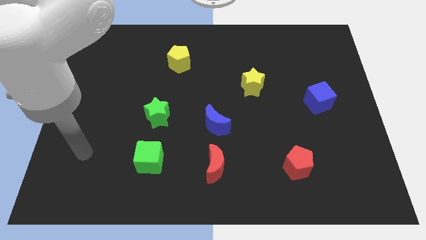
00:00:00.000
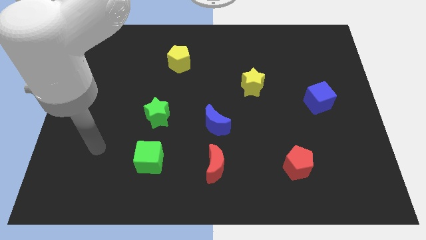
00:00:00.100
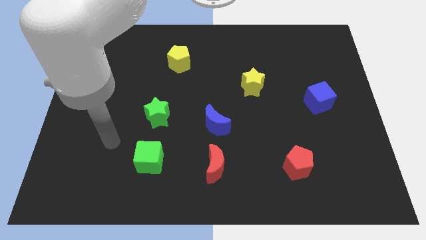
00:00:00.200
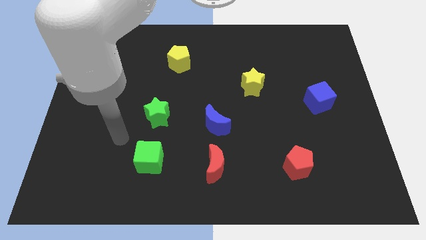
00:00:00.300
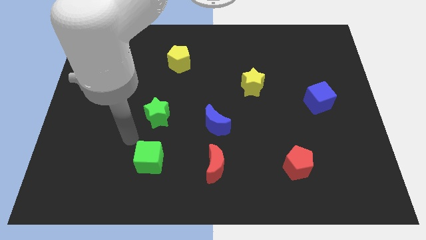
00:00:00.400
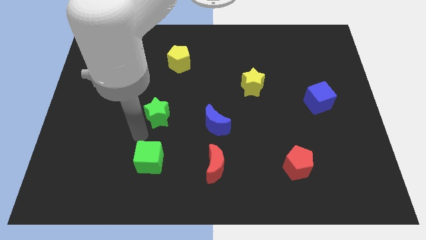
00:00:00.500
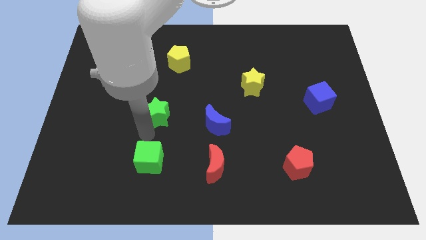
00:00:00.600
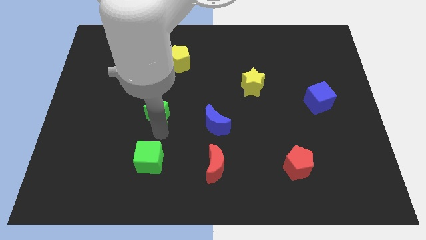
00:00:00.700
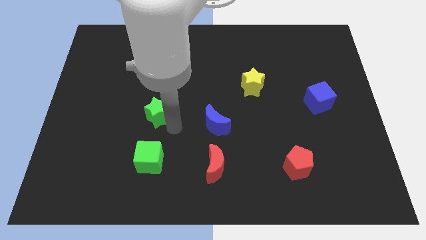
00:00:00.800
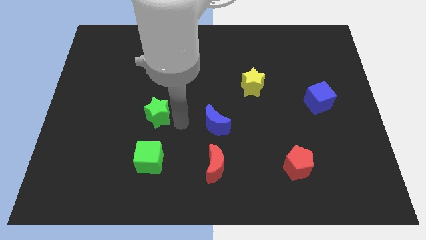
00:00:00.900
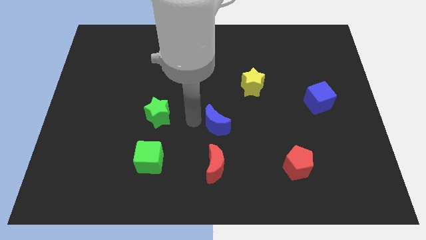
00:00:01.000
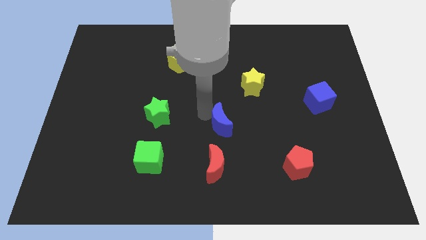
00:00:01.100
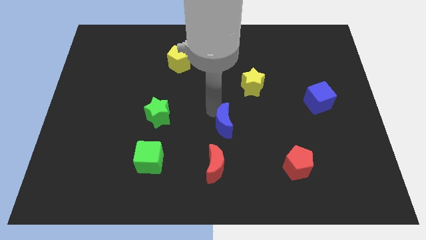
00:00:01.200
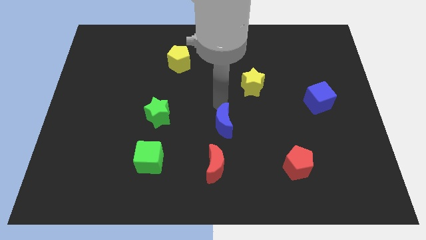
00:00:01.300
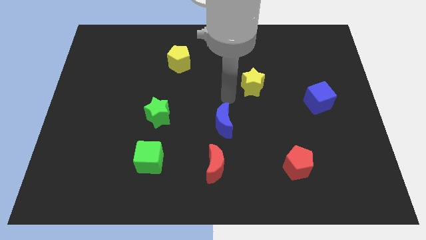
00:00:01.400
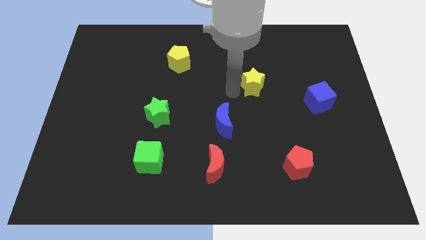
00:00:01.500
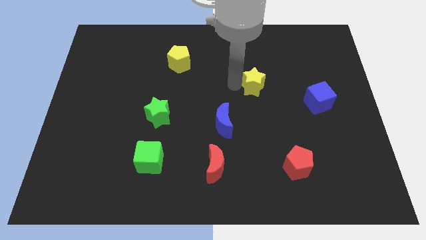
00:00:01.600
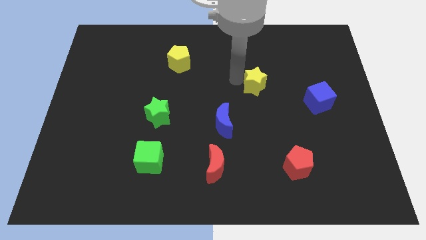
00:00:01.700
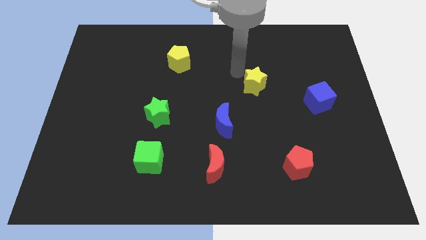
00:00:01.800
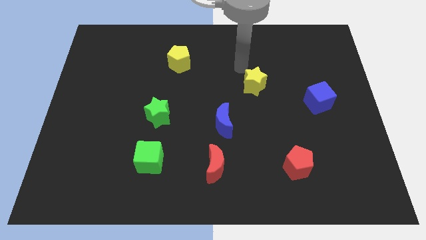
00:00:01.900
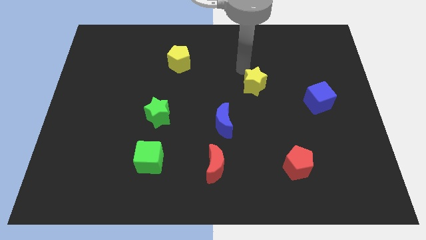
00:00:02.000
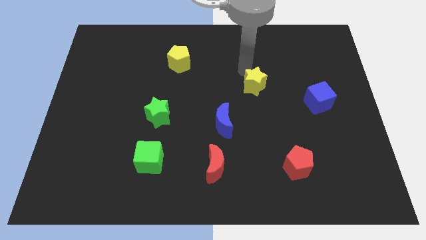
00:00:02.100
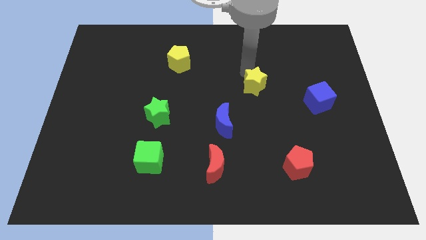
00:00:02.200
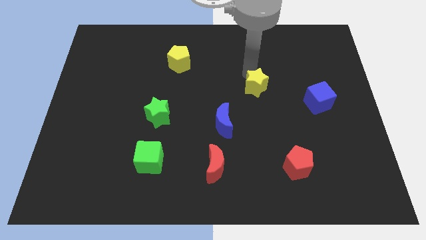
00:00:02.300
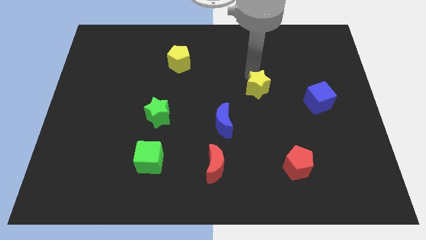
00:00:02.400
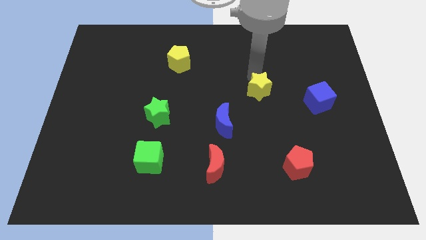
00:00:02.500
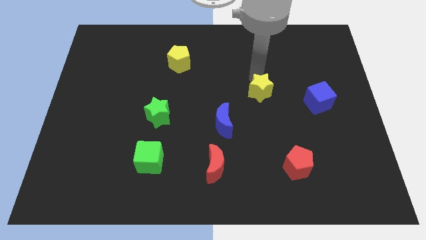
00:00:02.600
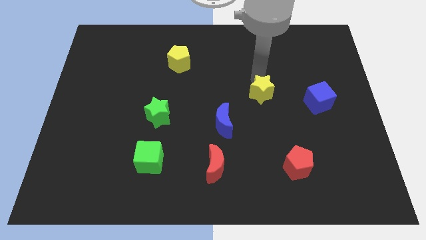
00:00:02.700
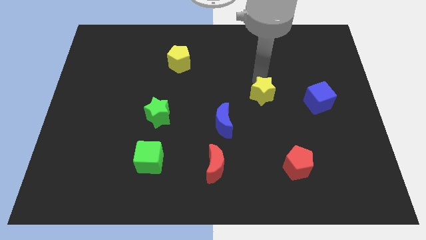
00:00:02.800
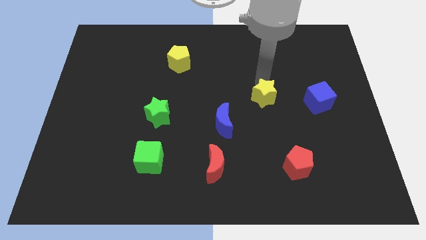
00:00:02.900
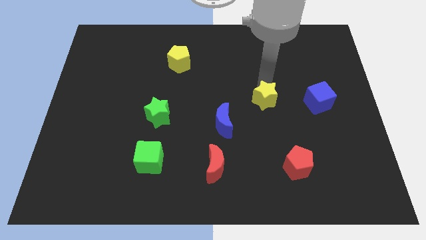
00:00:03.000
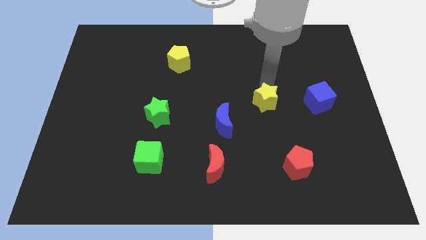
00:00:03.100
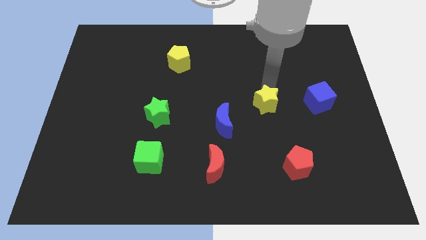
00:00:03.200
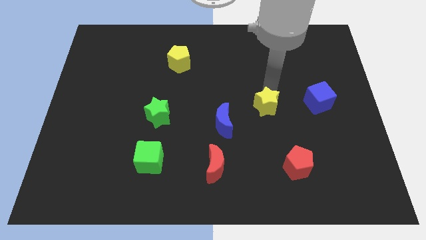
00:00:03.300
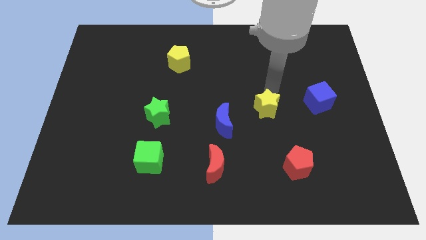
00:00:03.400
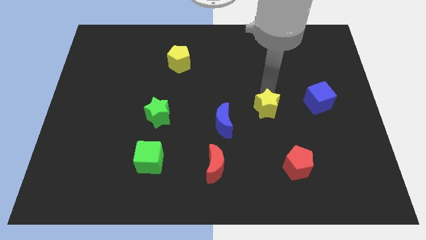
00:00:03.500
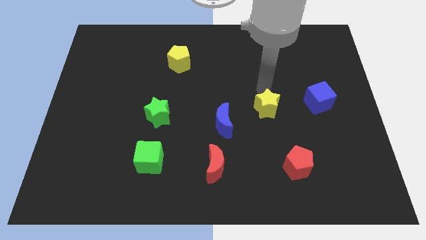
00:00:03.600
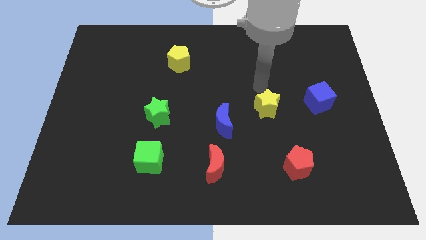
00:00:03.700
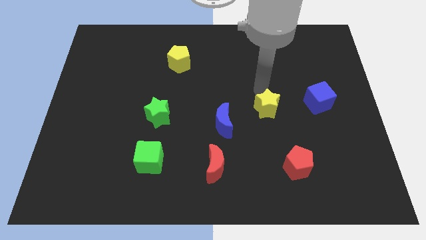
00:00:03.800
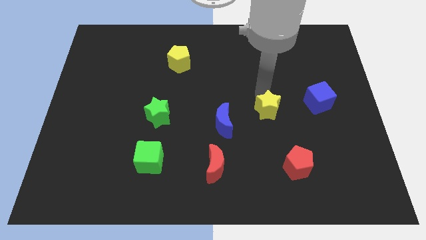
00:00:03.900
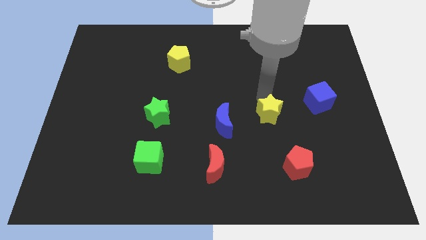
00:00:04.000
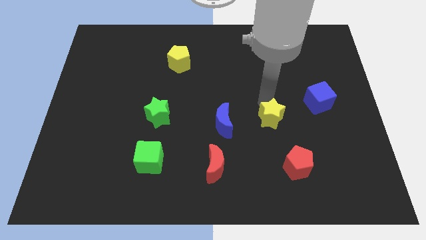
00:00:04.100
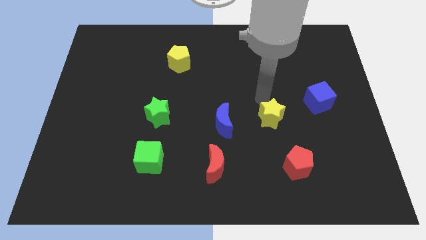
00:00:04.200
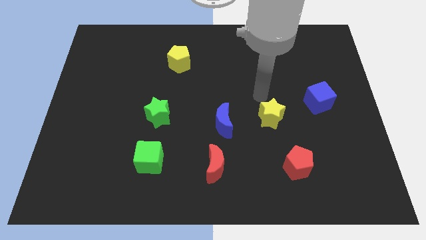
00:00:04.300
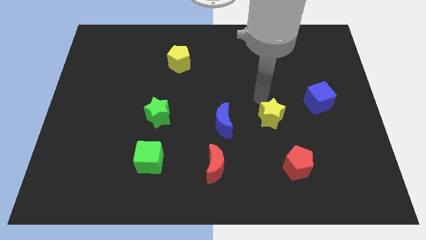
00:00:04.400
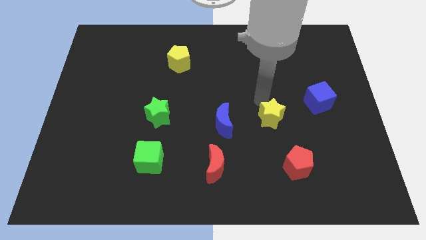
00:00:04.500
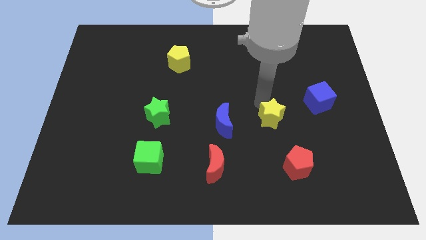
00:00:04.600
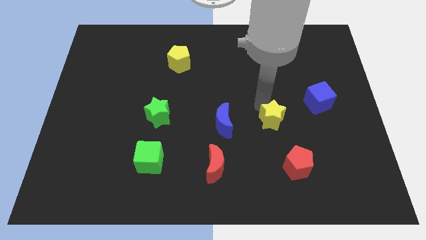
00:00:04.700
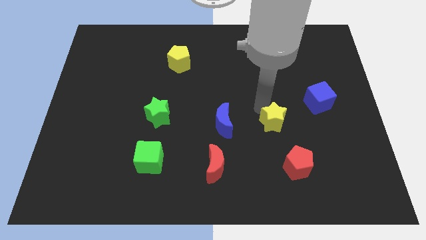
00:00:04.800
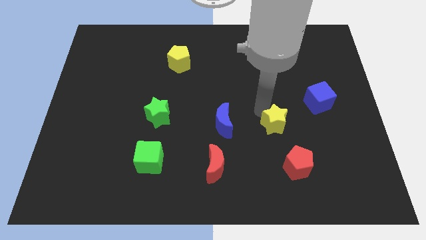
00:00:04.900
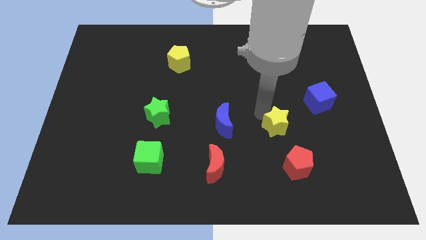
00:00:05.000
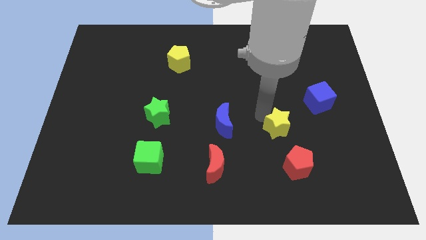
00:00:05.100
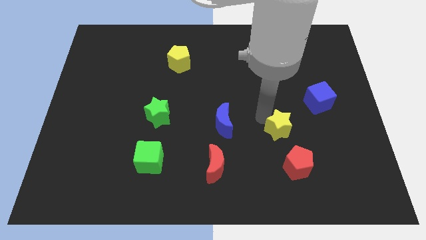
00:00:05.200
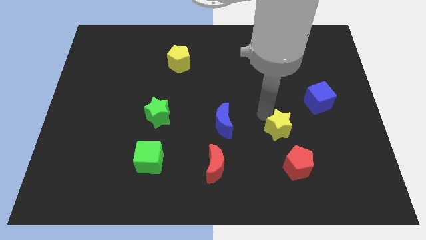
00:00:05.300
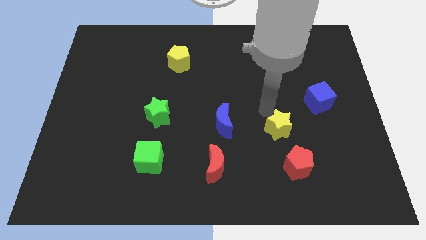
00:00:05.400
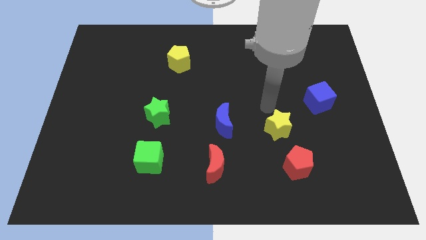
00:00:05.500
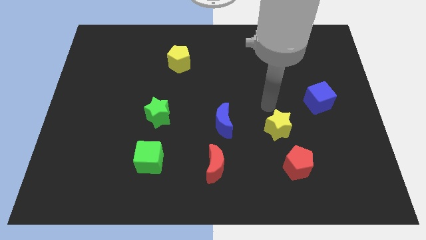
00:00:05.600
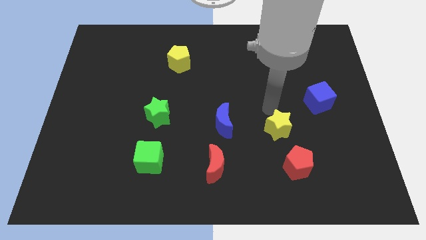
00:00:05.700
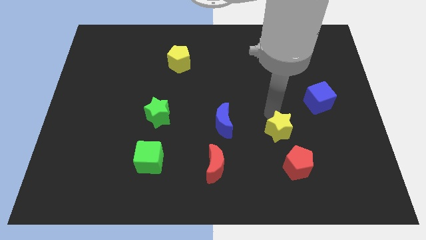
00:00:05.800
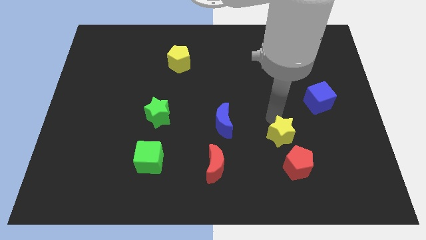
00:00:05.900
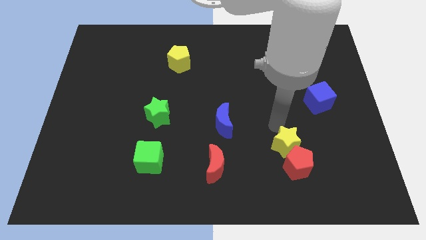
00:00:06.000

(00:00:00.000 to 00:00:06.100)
slide the yellow star next to the red pentagon
